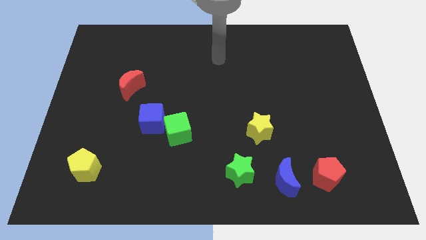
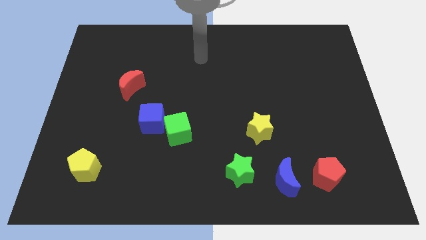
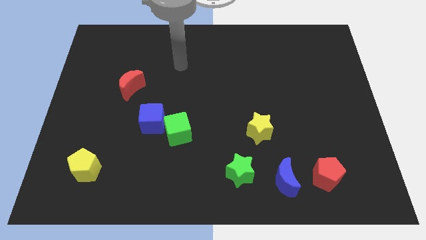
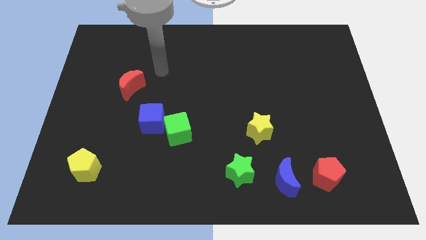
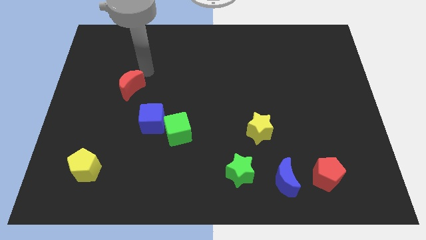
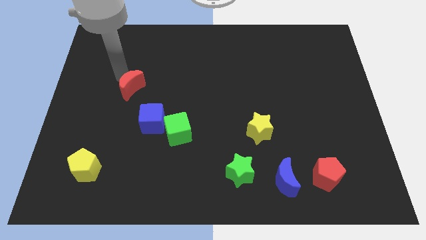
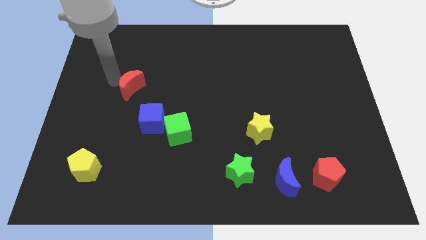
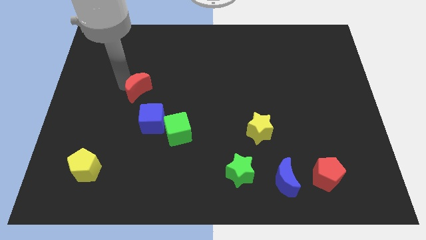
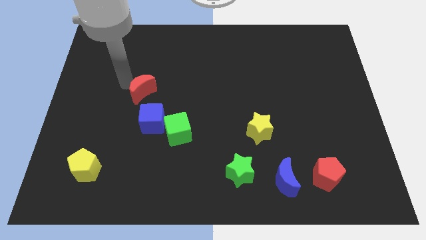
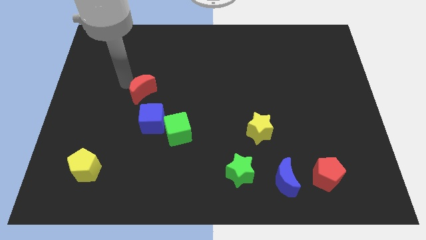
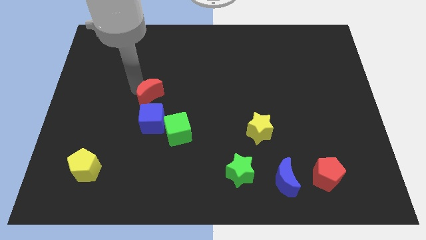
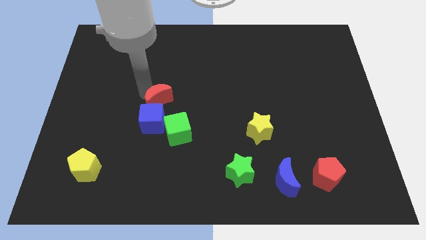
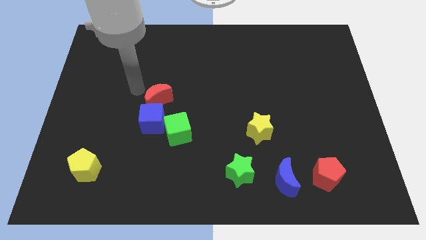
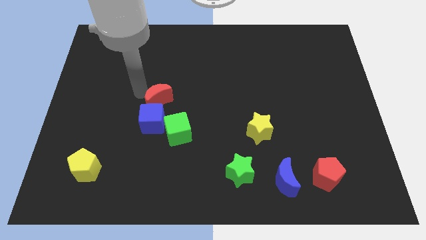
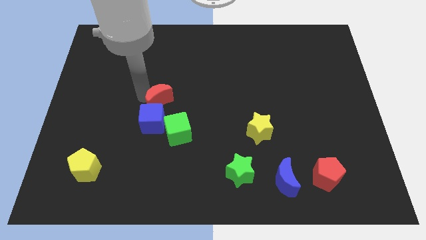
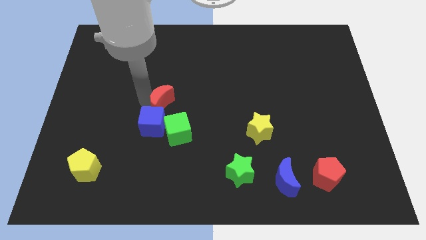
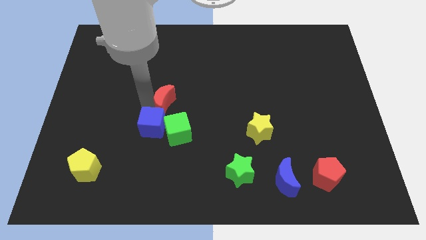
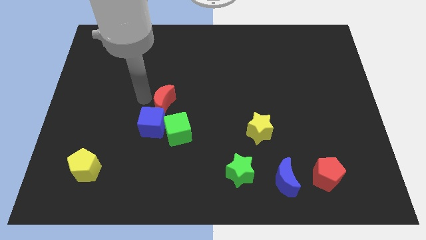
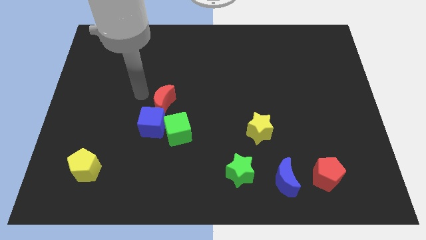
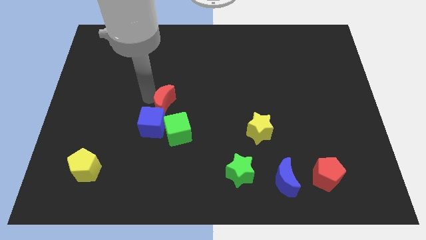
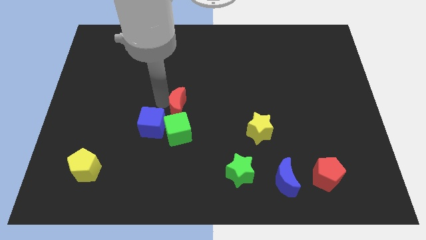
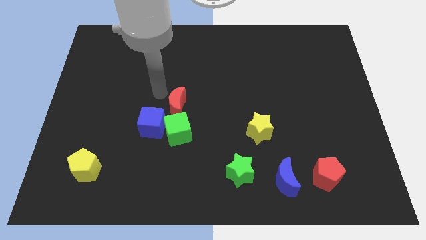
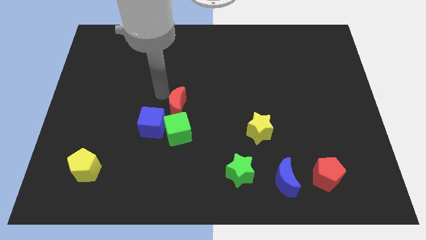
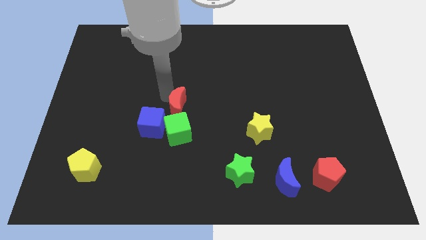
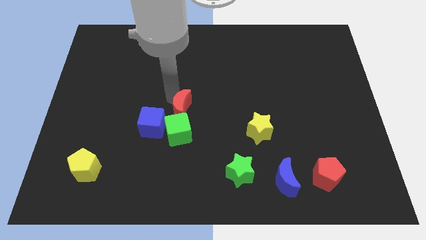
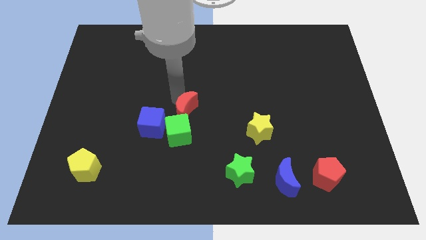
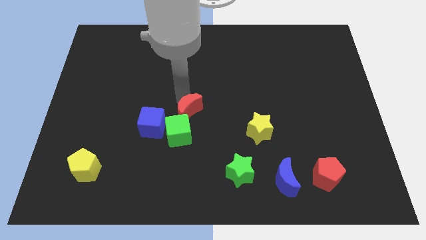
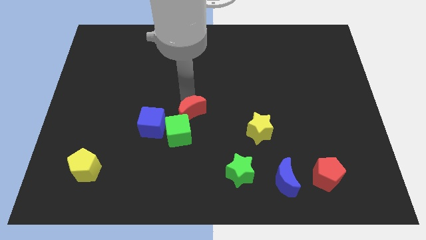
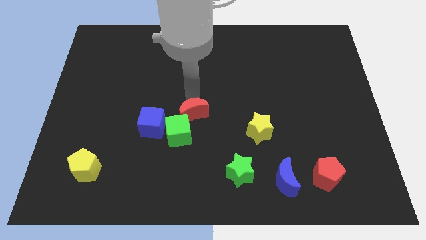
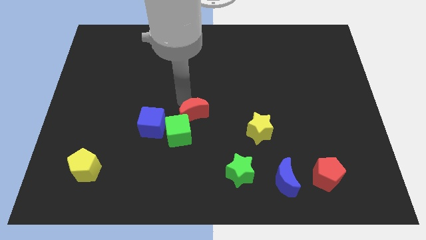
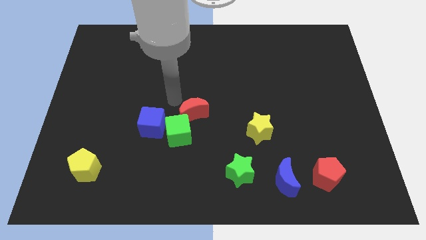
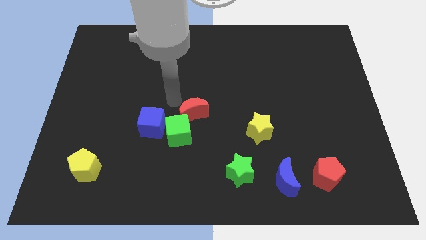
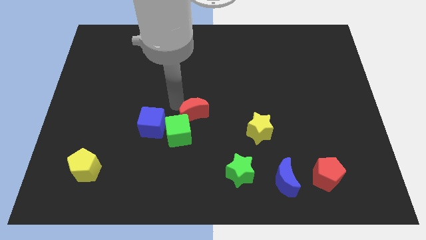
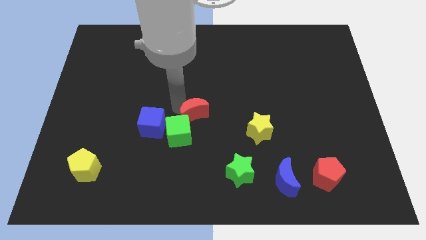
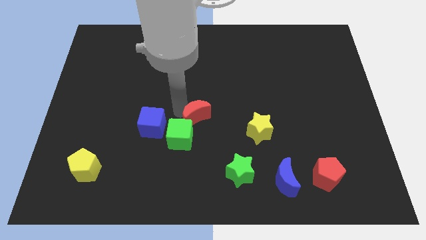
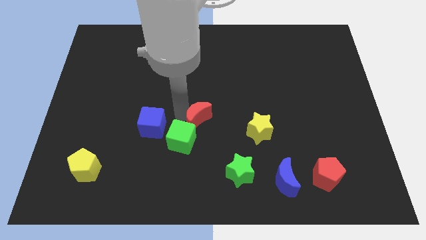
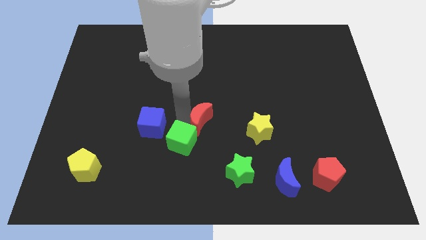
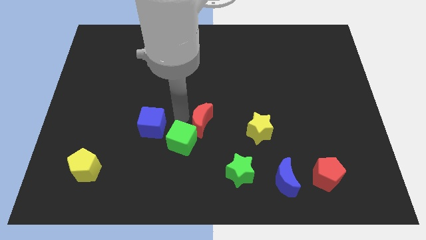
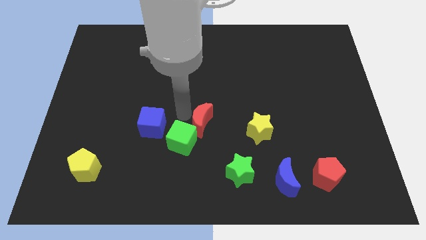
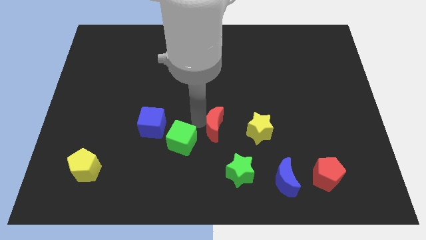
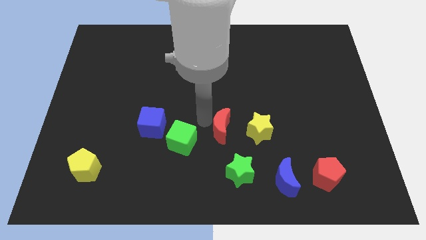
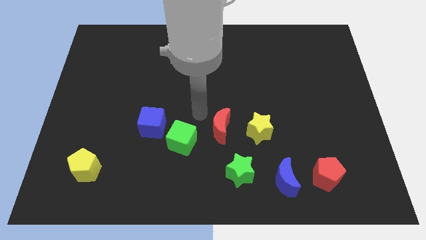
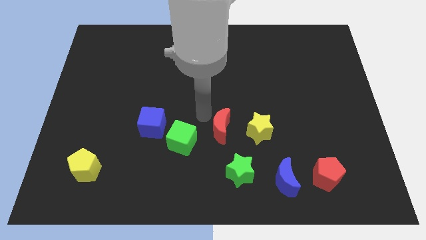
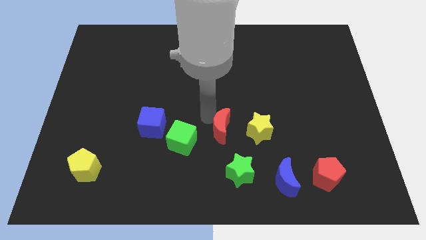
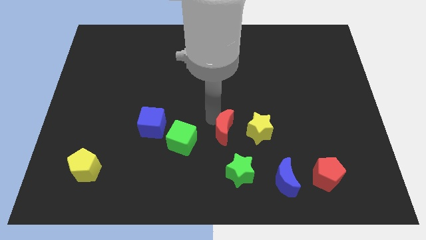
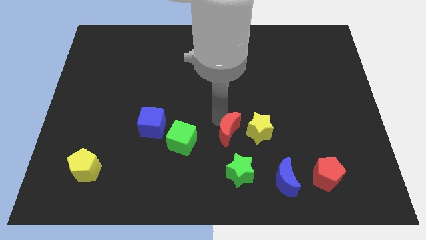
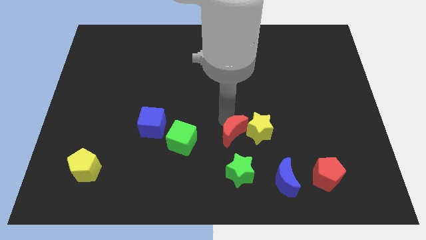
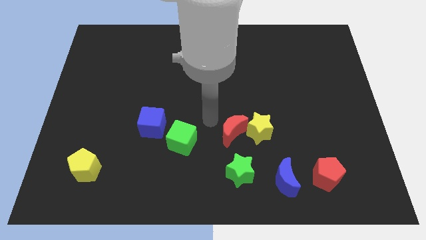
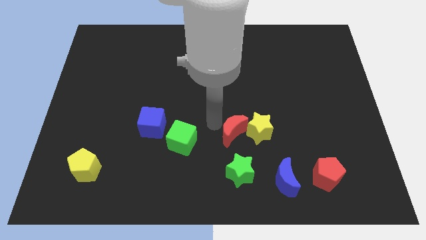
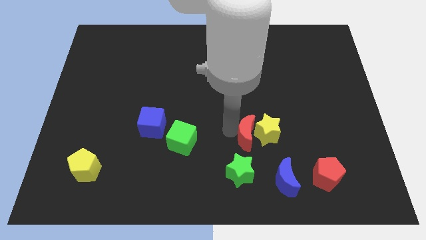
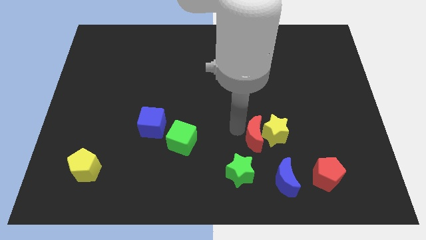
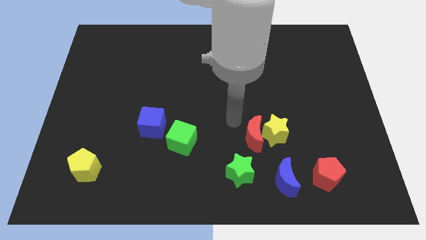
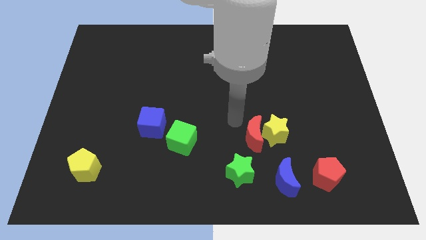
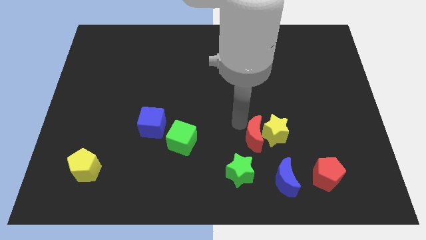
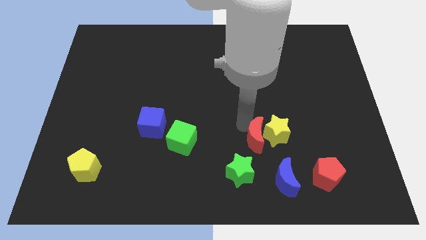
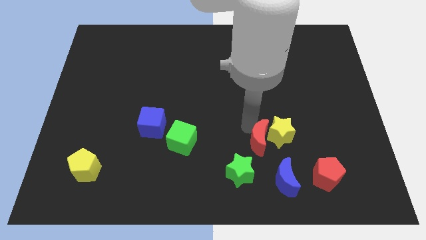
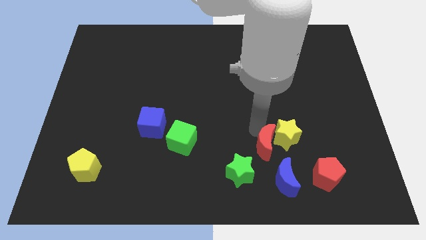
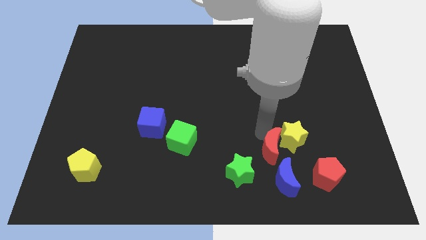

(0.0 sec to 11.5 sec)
slide the red moon to the top left of the red pentagon

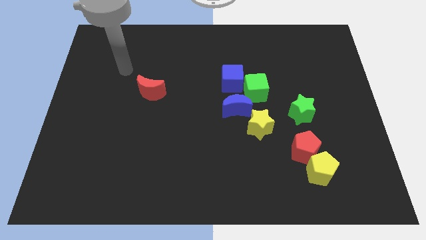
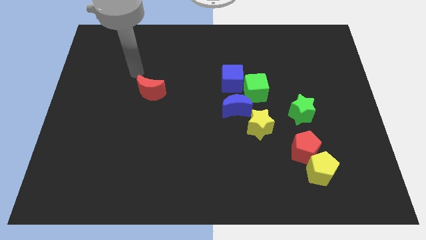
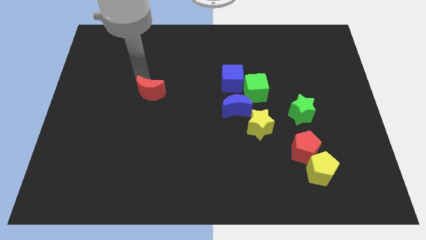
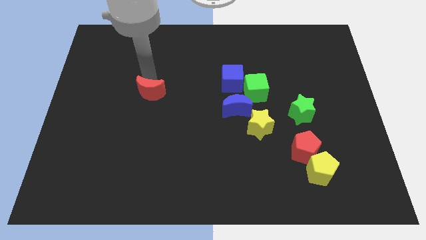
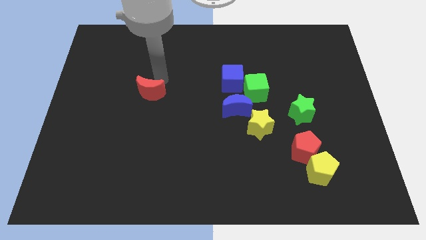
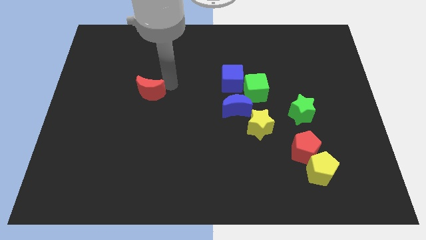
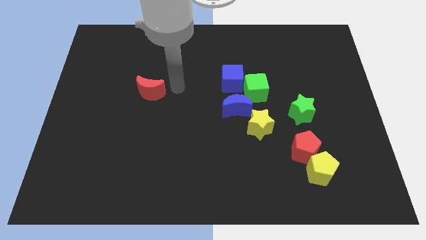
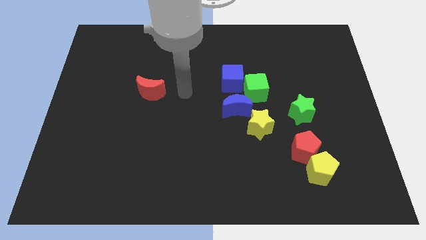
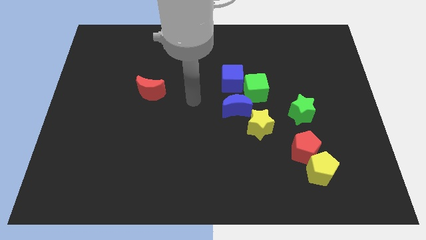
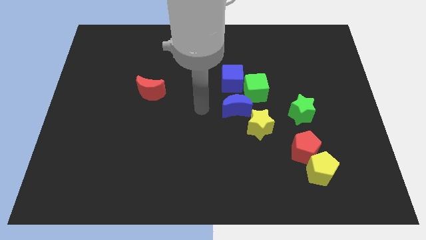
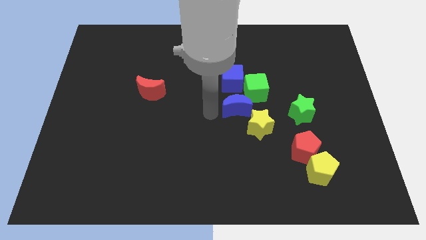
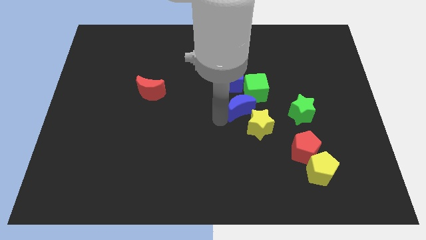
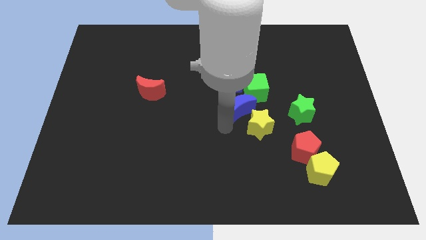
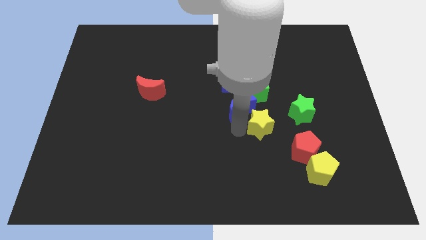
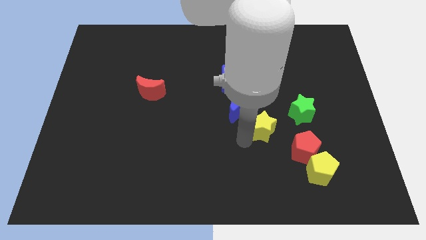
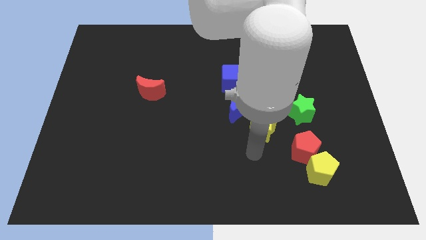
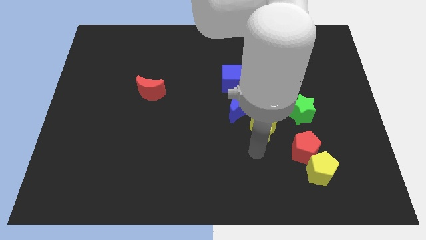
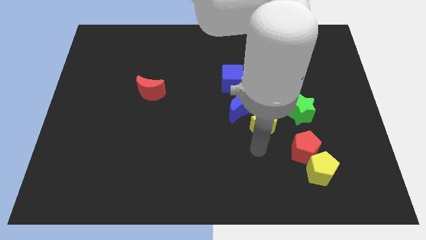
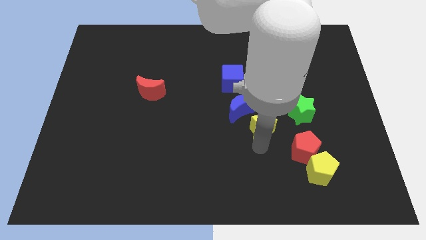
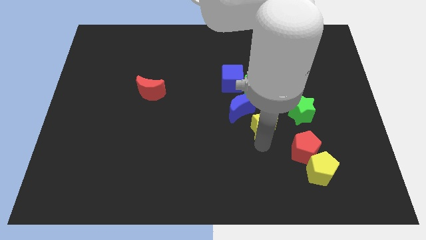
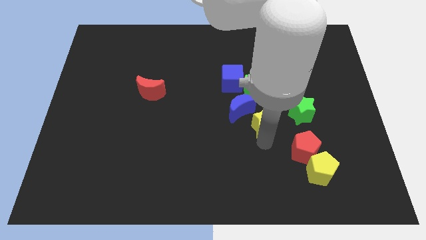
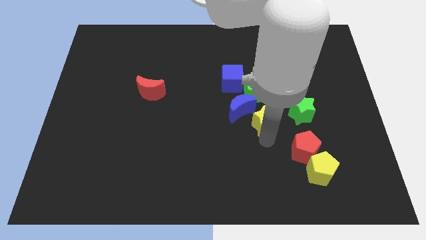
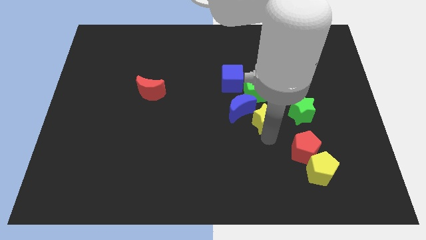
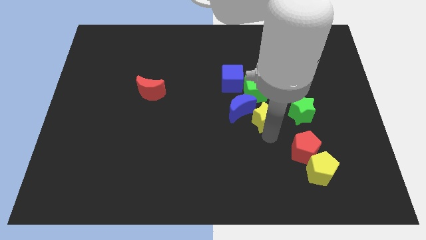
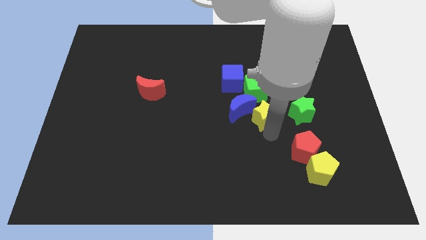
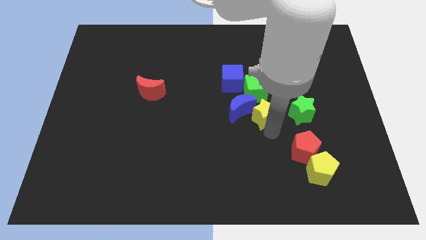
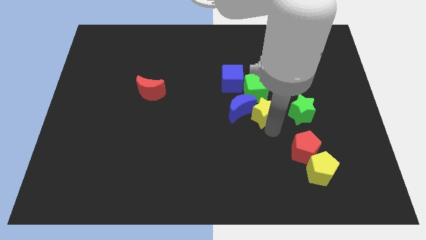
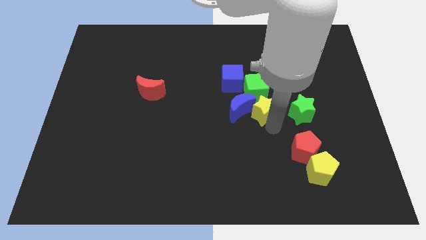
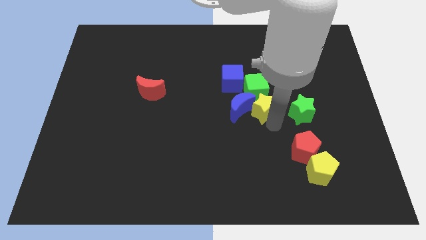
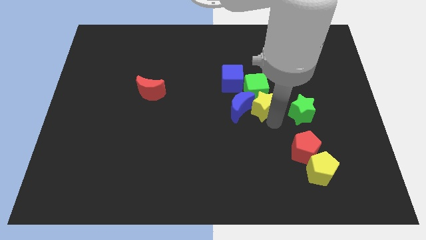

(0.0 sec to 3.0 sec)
move the yellow star diagonally up and to the left of the green star
